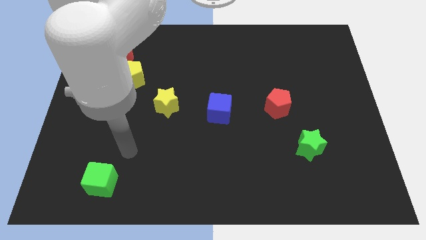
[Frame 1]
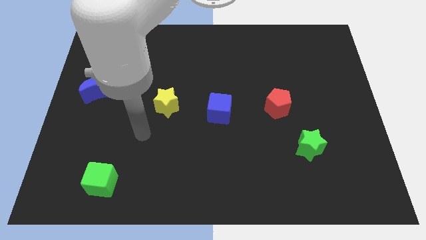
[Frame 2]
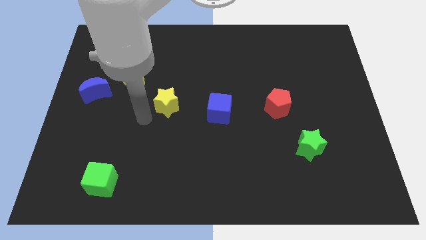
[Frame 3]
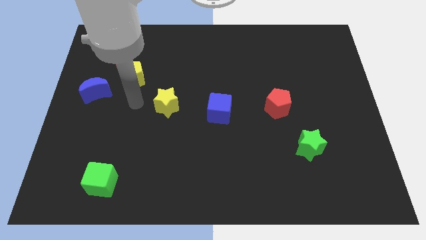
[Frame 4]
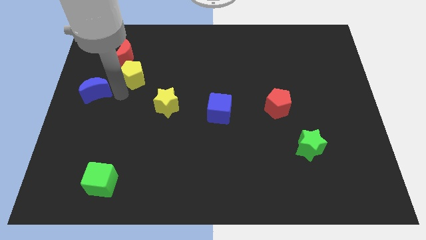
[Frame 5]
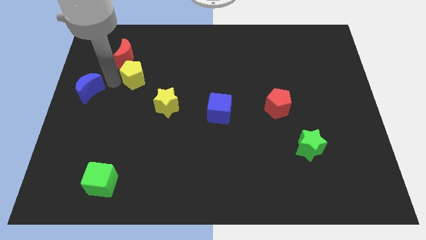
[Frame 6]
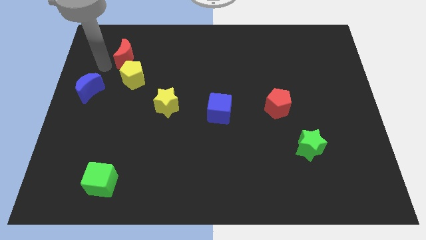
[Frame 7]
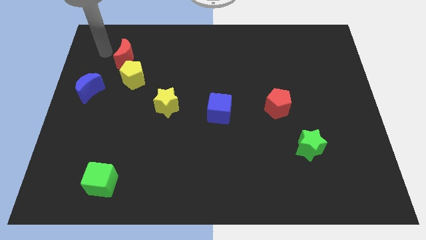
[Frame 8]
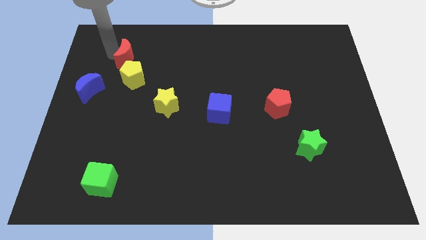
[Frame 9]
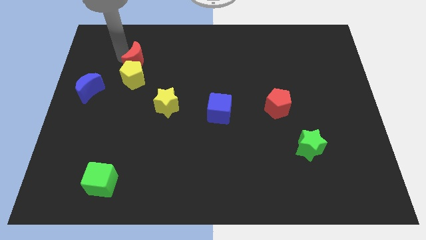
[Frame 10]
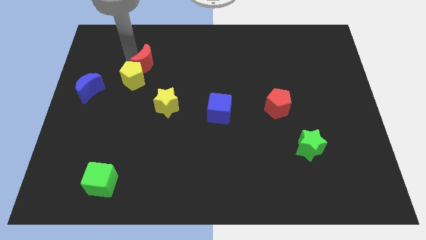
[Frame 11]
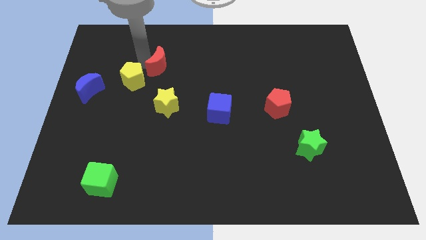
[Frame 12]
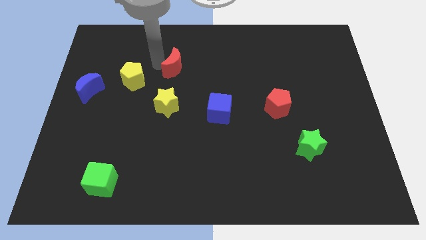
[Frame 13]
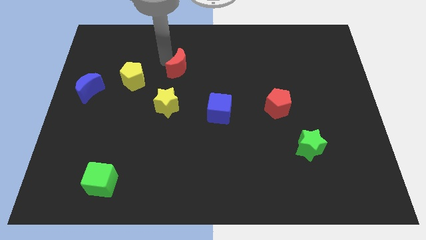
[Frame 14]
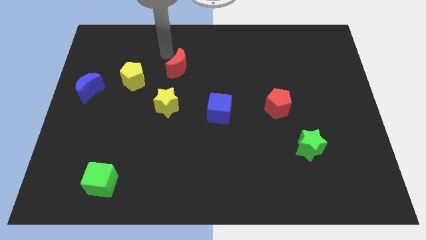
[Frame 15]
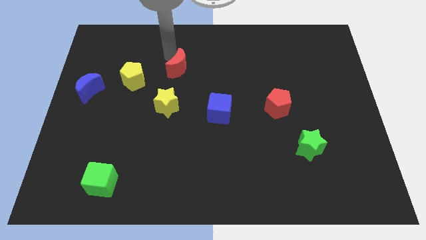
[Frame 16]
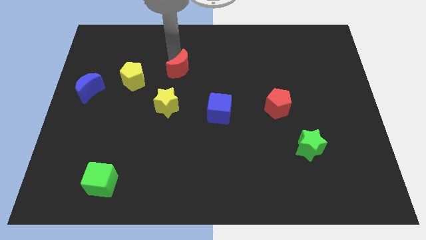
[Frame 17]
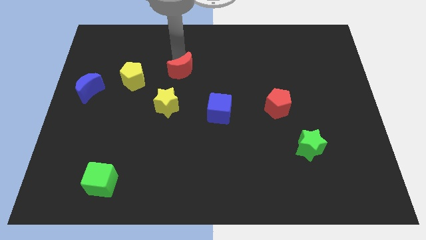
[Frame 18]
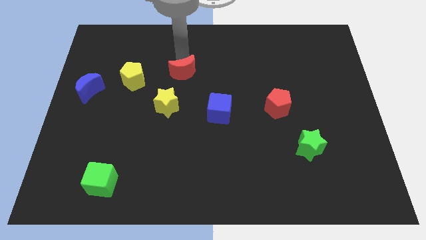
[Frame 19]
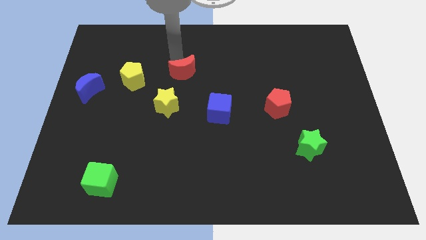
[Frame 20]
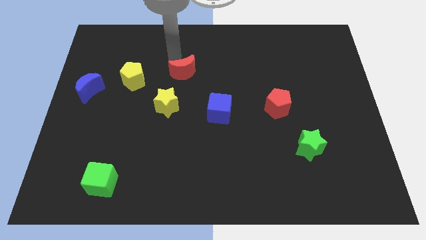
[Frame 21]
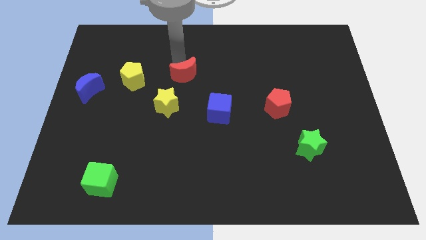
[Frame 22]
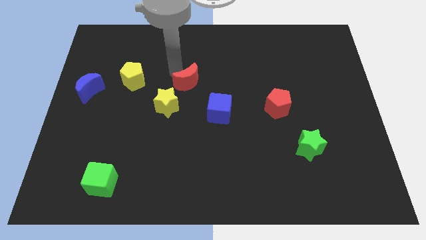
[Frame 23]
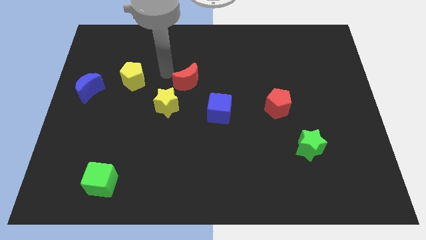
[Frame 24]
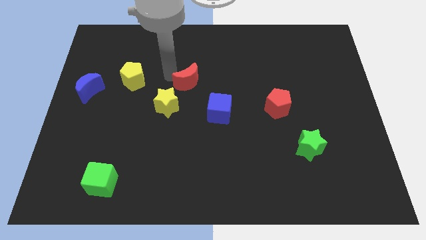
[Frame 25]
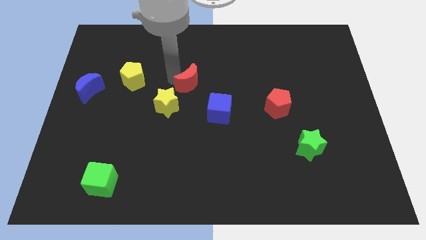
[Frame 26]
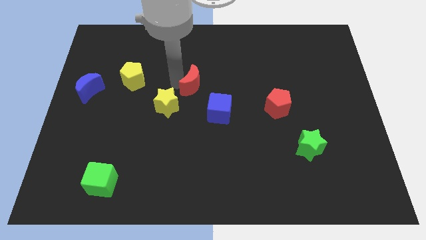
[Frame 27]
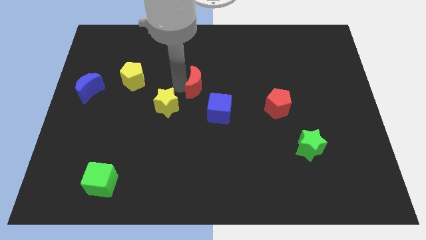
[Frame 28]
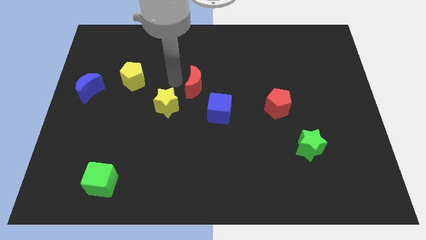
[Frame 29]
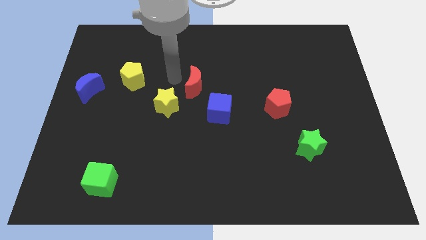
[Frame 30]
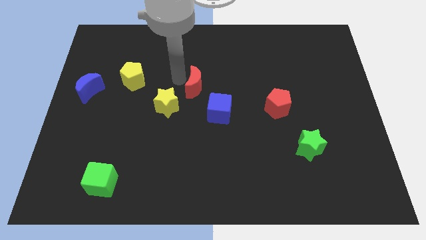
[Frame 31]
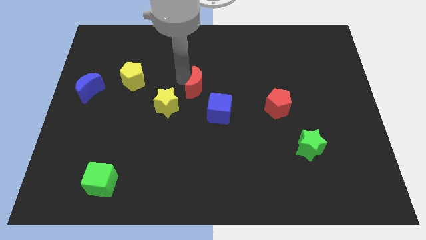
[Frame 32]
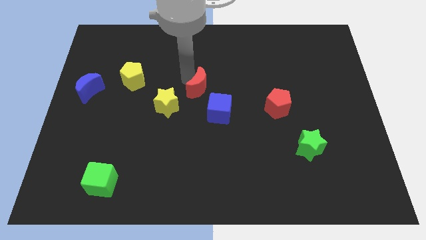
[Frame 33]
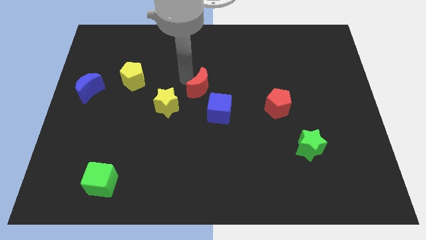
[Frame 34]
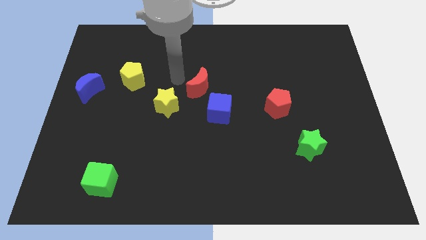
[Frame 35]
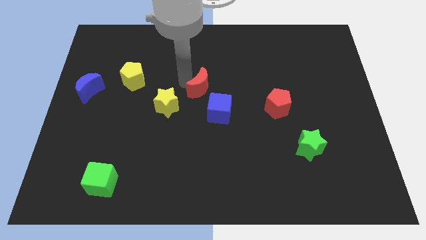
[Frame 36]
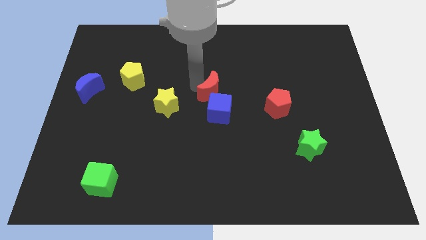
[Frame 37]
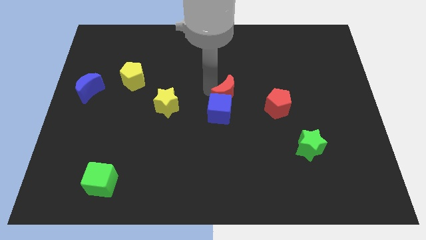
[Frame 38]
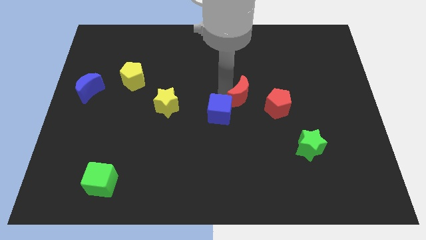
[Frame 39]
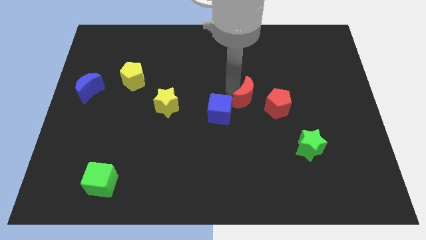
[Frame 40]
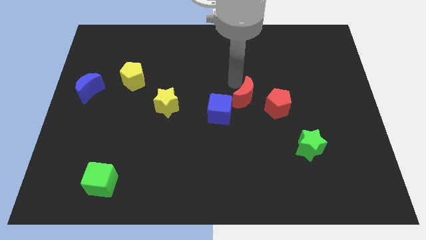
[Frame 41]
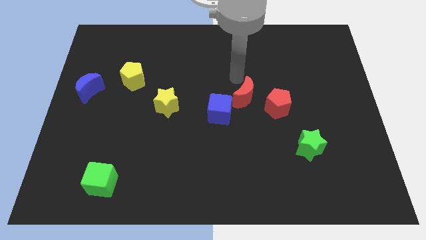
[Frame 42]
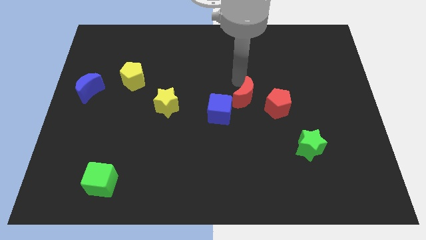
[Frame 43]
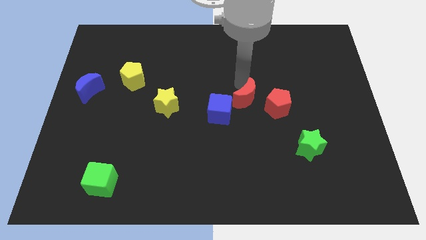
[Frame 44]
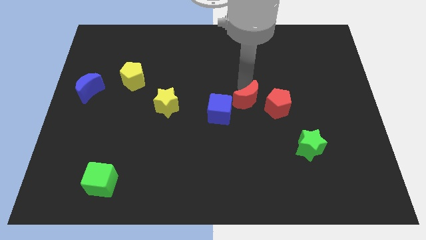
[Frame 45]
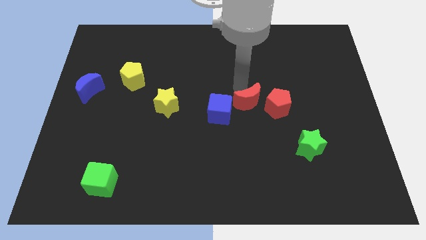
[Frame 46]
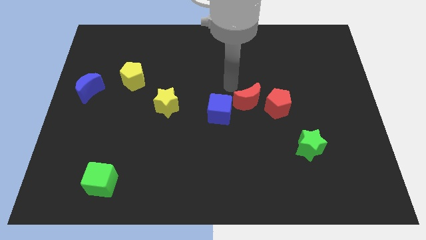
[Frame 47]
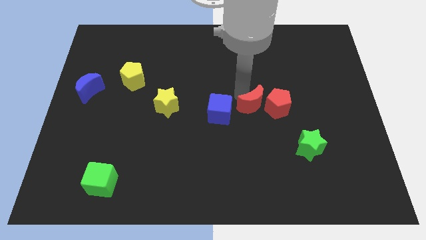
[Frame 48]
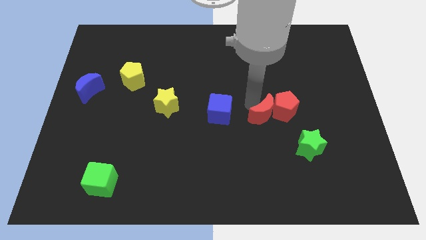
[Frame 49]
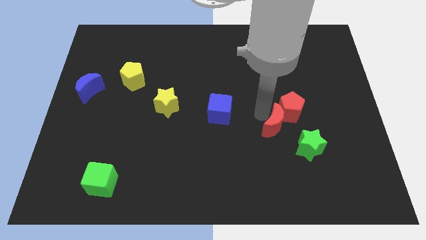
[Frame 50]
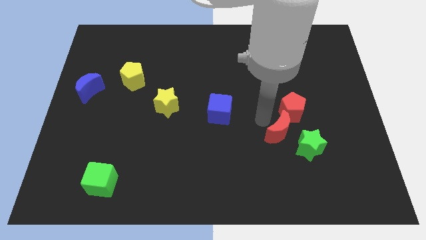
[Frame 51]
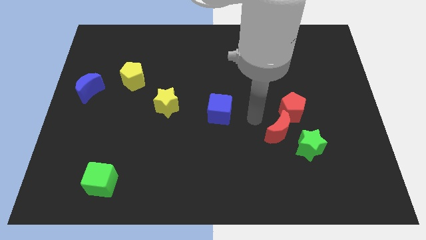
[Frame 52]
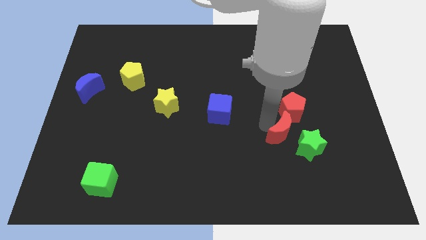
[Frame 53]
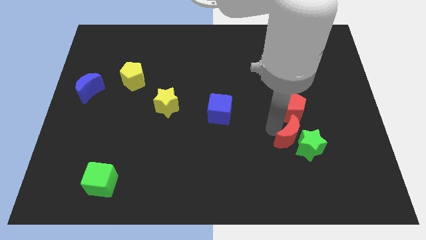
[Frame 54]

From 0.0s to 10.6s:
put the red moon towards the green star

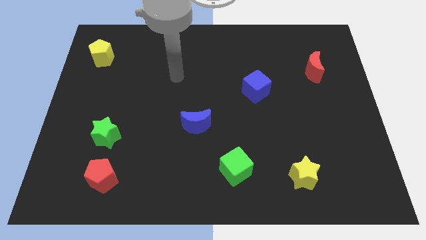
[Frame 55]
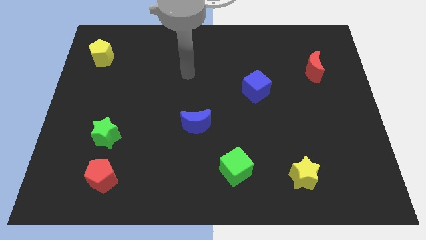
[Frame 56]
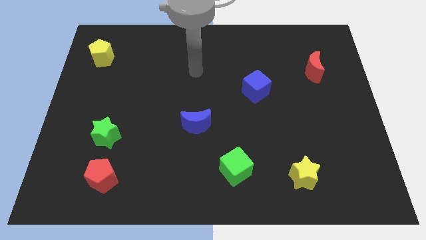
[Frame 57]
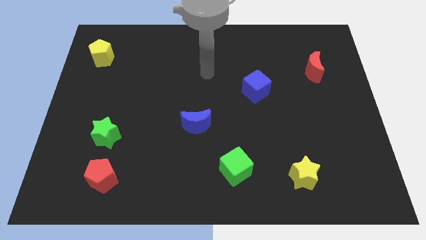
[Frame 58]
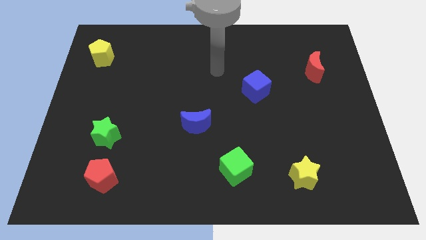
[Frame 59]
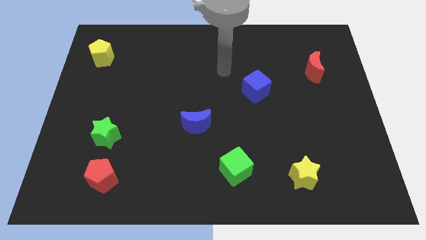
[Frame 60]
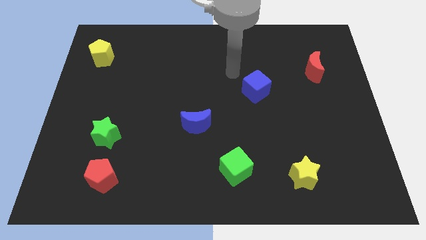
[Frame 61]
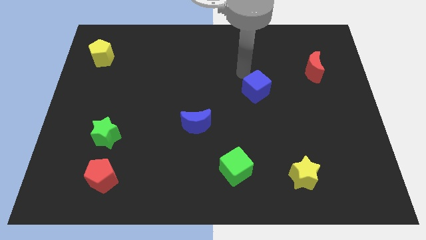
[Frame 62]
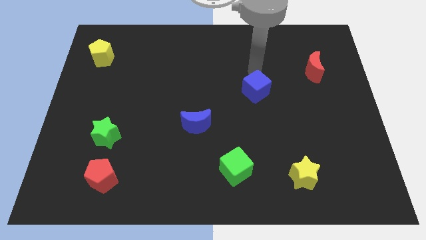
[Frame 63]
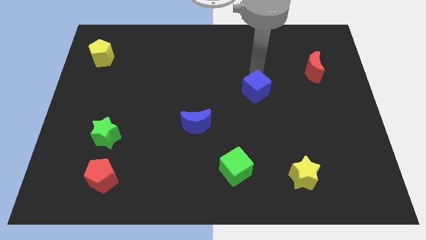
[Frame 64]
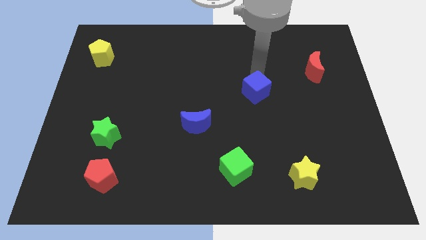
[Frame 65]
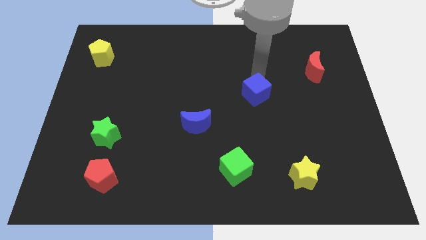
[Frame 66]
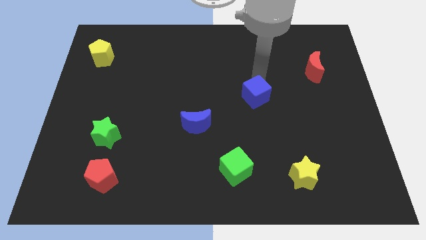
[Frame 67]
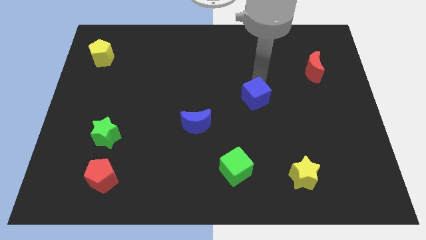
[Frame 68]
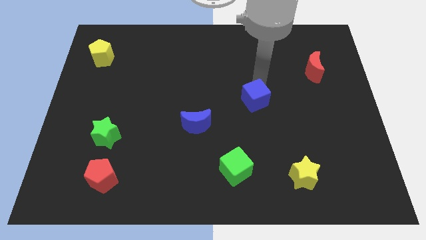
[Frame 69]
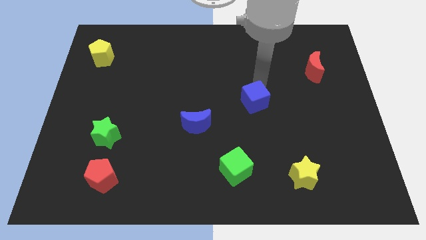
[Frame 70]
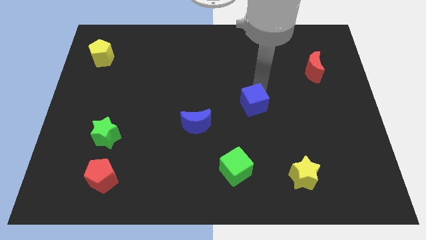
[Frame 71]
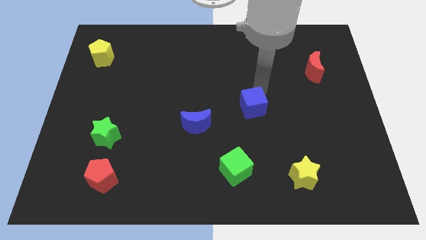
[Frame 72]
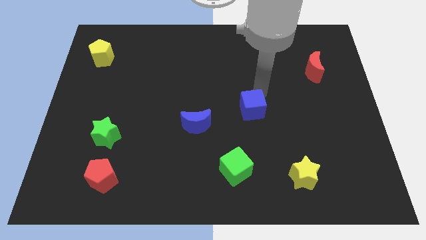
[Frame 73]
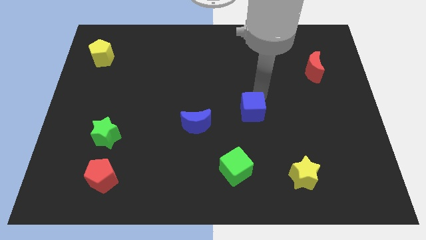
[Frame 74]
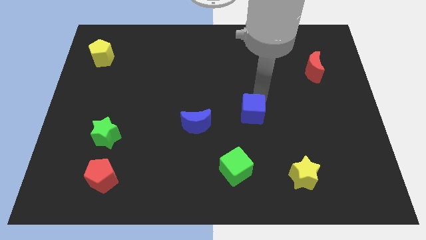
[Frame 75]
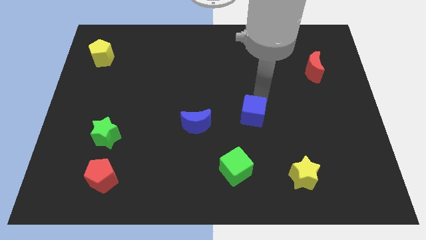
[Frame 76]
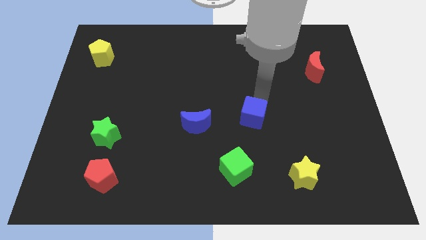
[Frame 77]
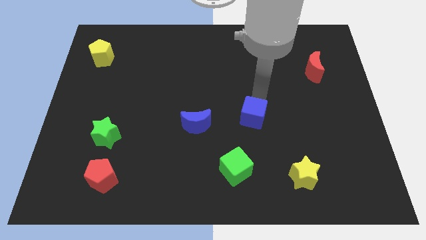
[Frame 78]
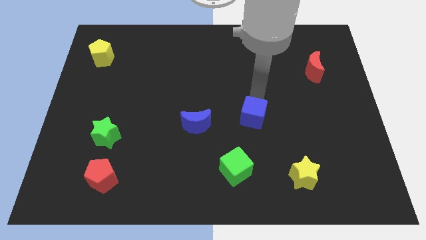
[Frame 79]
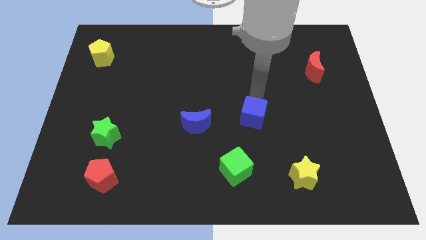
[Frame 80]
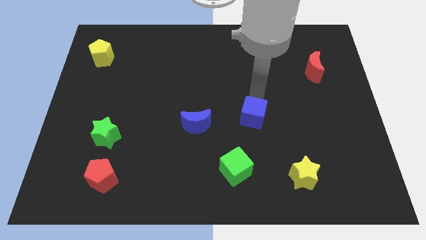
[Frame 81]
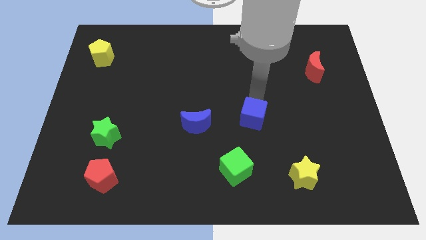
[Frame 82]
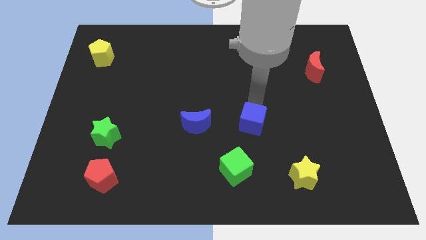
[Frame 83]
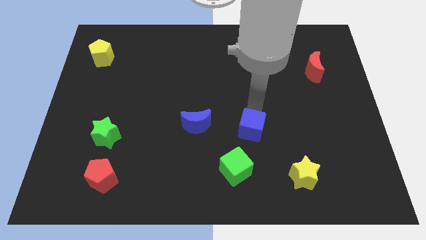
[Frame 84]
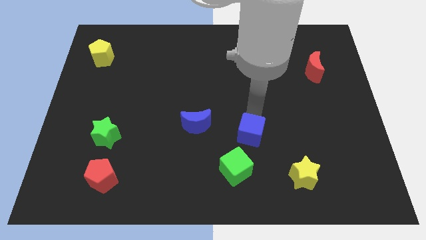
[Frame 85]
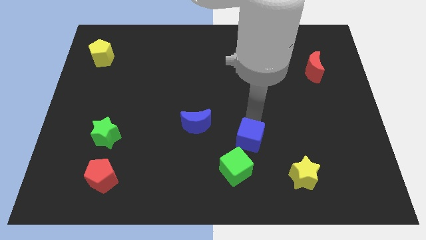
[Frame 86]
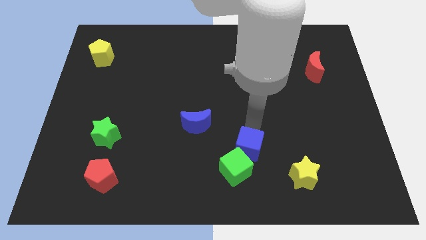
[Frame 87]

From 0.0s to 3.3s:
put the blue cube close to the green cube
